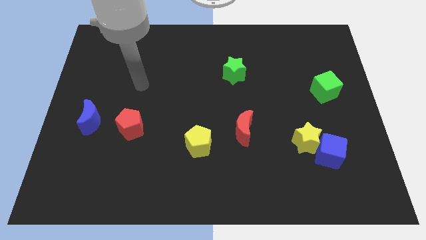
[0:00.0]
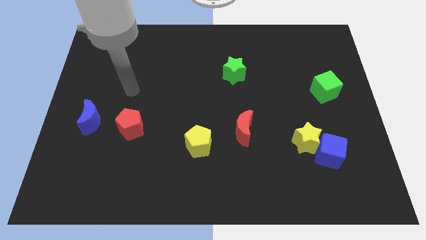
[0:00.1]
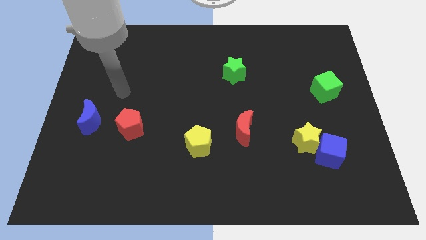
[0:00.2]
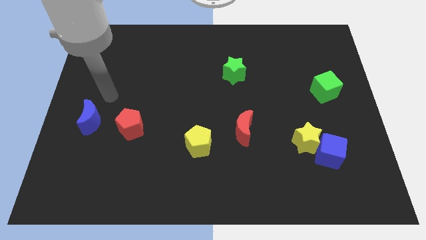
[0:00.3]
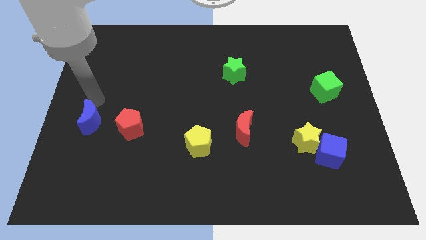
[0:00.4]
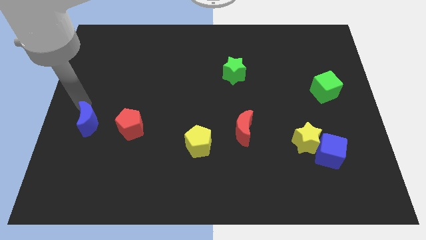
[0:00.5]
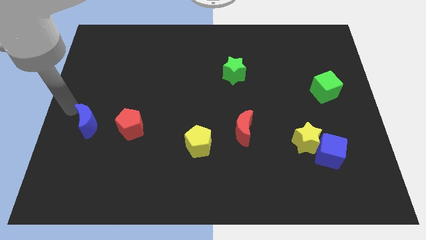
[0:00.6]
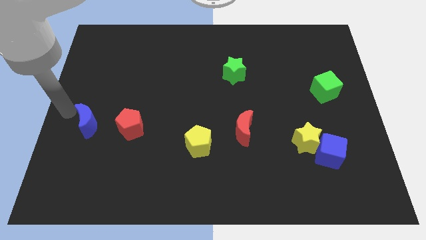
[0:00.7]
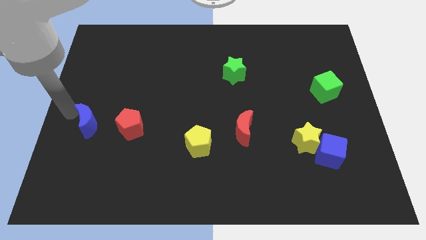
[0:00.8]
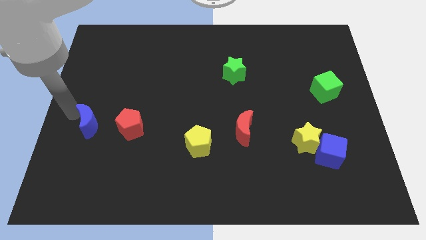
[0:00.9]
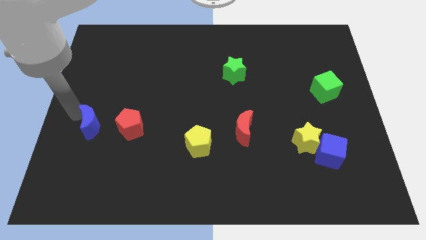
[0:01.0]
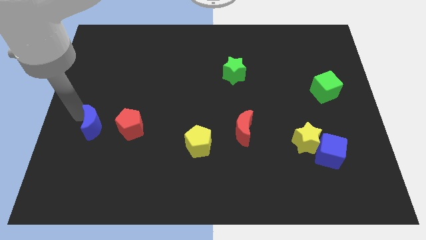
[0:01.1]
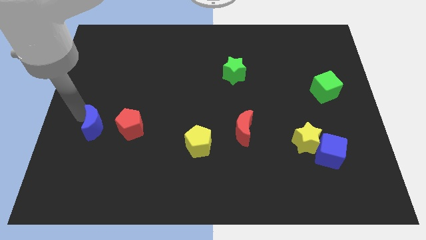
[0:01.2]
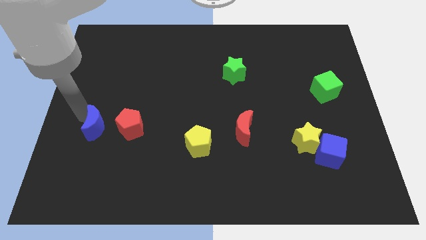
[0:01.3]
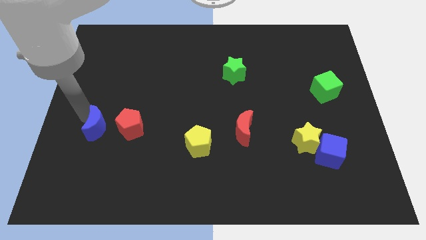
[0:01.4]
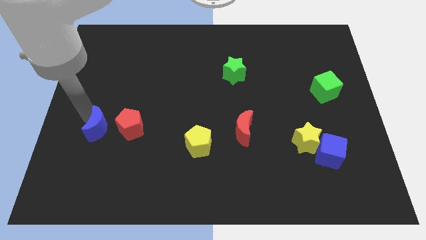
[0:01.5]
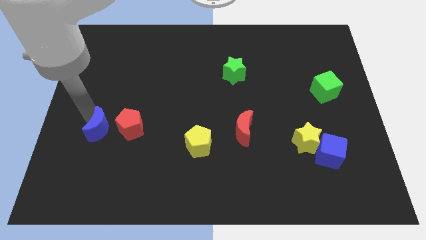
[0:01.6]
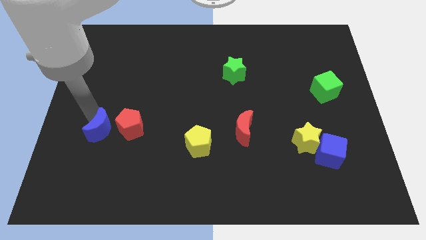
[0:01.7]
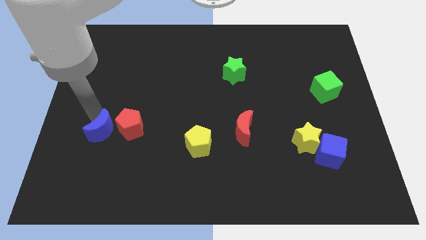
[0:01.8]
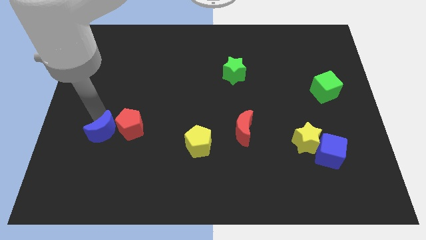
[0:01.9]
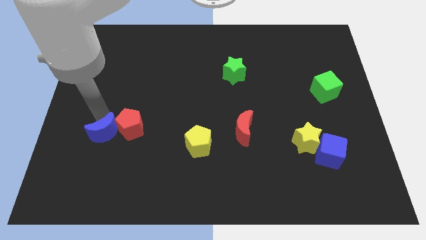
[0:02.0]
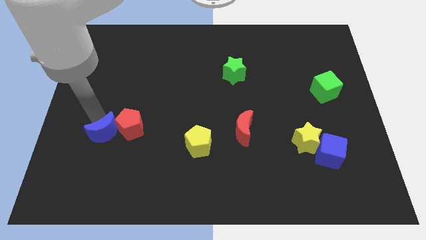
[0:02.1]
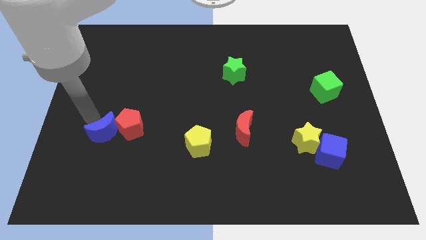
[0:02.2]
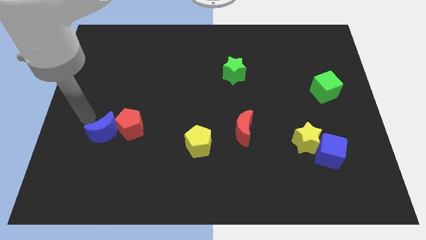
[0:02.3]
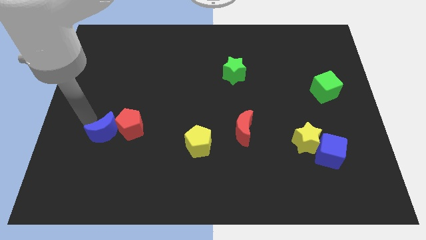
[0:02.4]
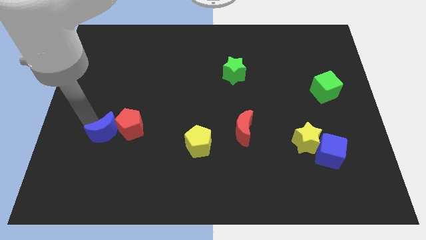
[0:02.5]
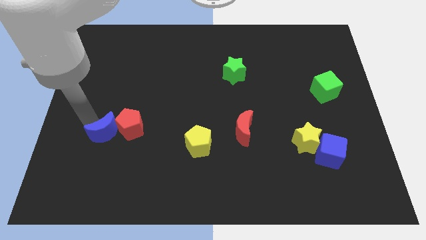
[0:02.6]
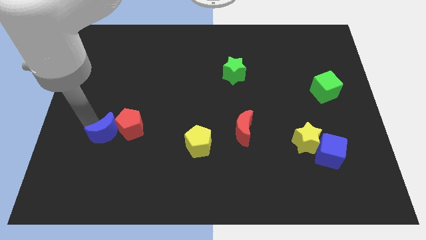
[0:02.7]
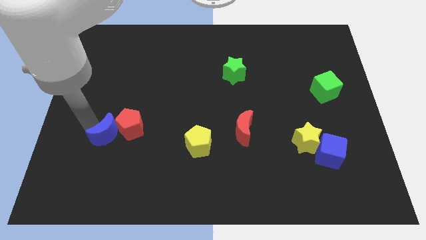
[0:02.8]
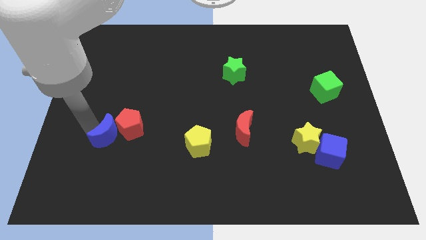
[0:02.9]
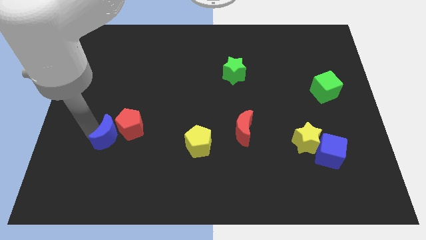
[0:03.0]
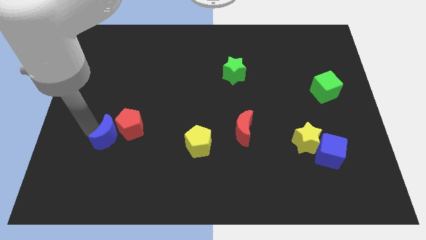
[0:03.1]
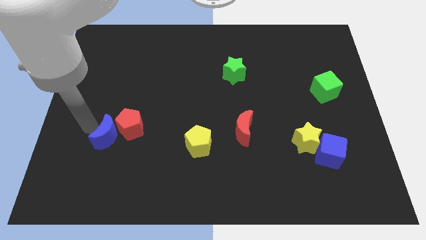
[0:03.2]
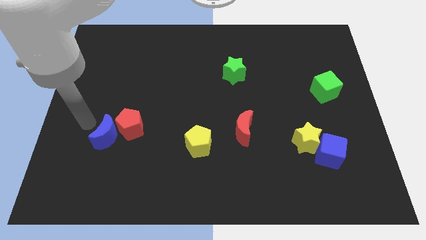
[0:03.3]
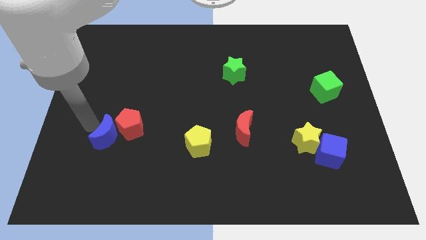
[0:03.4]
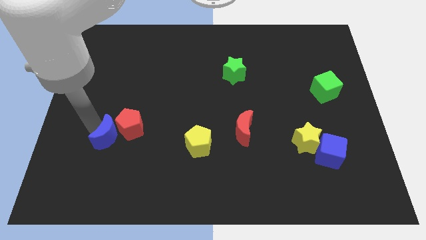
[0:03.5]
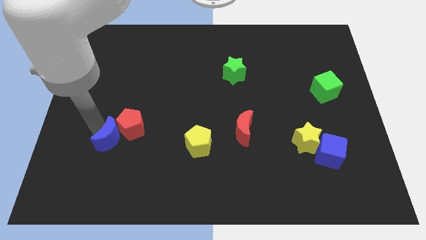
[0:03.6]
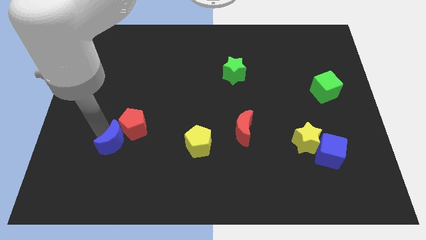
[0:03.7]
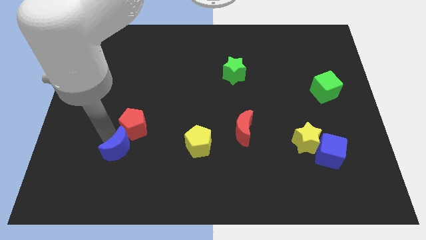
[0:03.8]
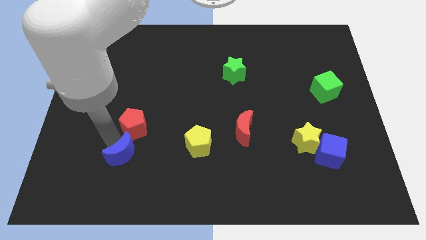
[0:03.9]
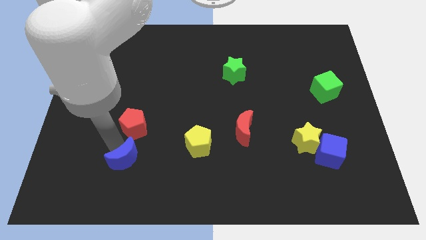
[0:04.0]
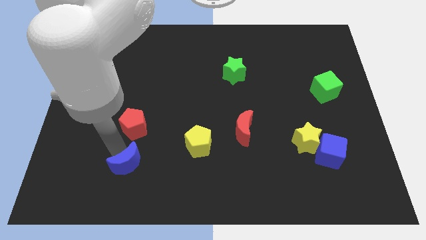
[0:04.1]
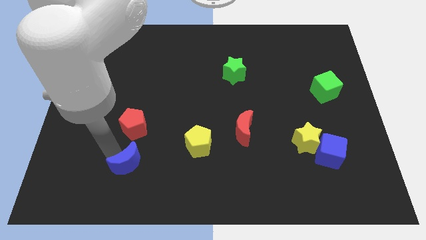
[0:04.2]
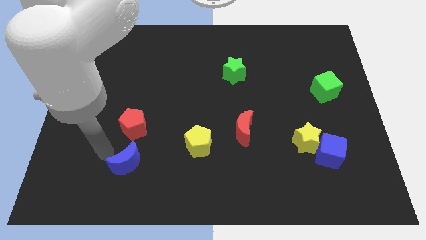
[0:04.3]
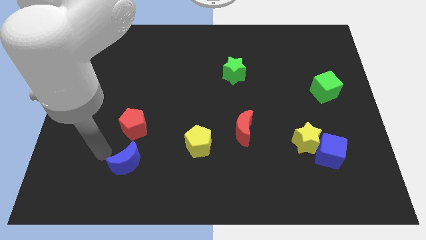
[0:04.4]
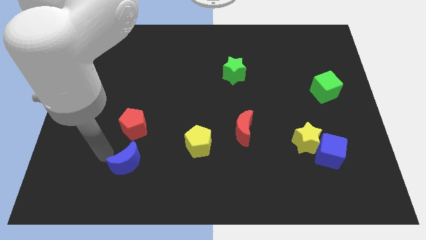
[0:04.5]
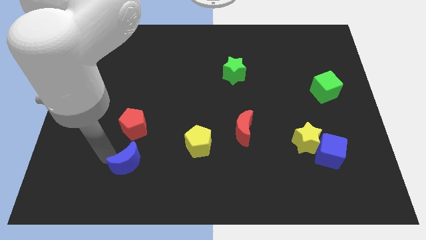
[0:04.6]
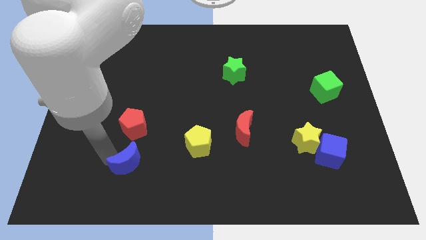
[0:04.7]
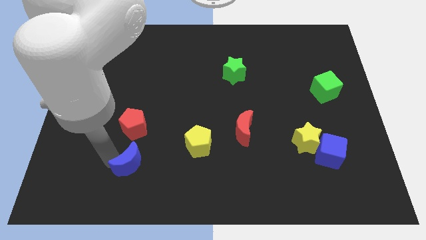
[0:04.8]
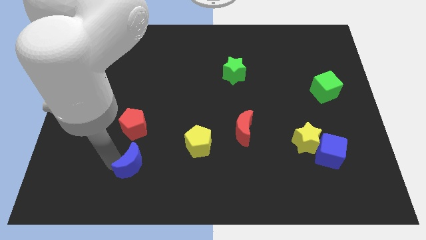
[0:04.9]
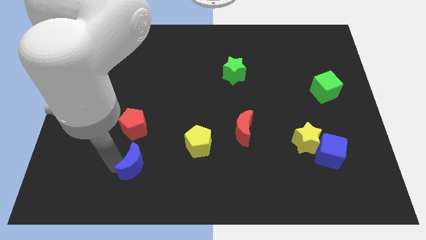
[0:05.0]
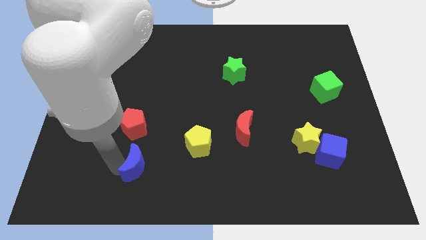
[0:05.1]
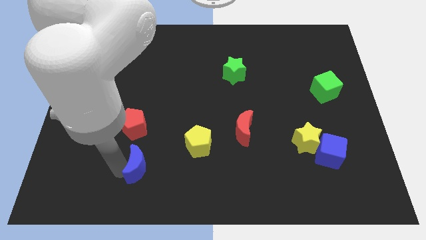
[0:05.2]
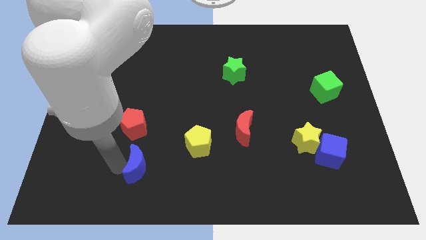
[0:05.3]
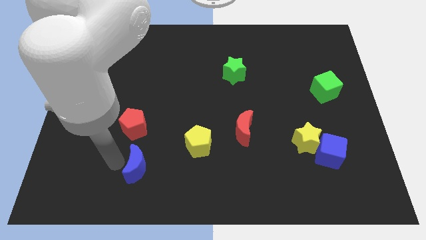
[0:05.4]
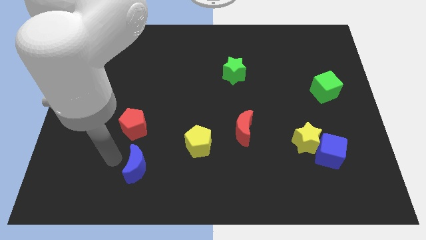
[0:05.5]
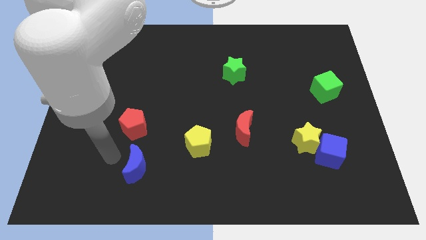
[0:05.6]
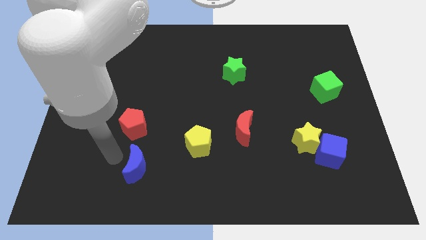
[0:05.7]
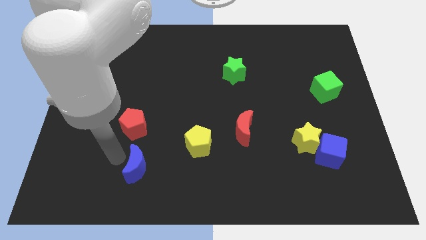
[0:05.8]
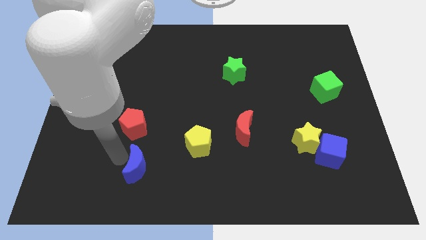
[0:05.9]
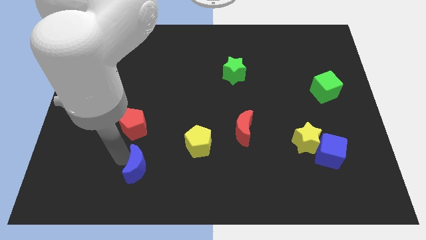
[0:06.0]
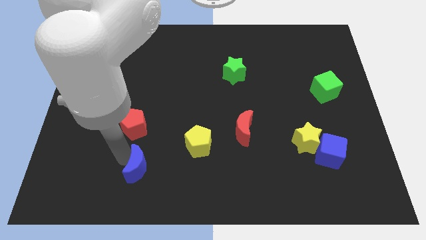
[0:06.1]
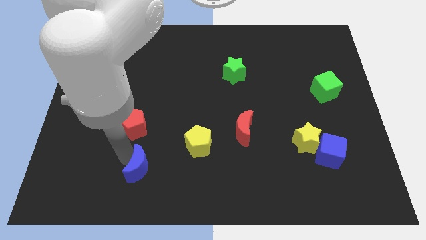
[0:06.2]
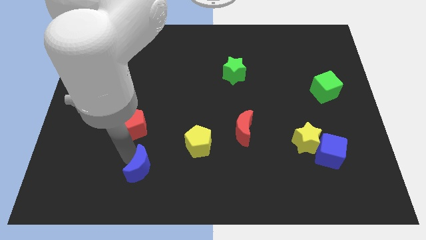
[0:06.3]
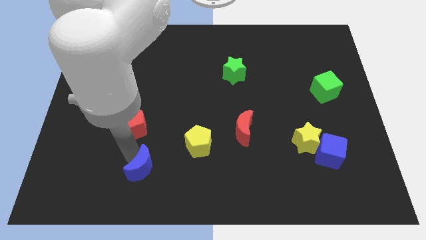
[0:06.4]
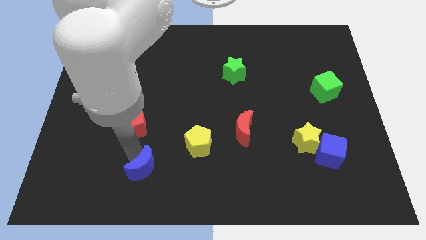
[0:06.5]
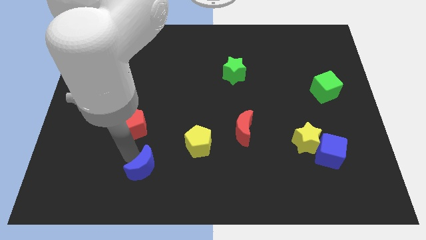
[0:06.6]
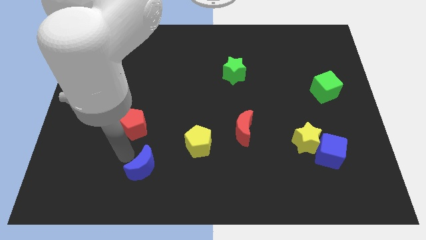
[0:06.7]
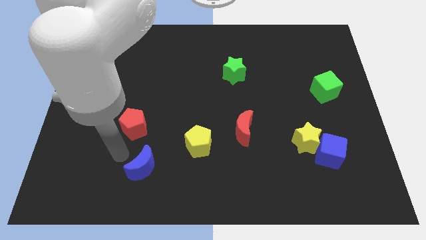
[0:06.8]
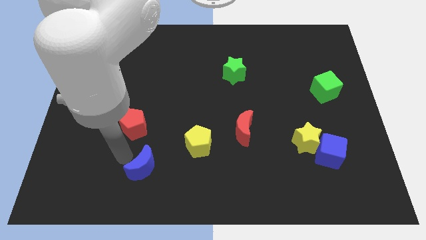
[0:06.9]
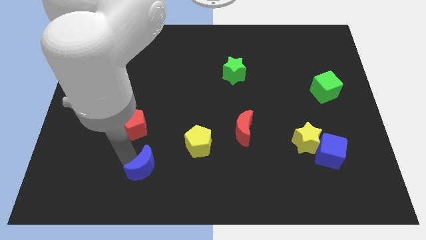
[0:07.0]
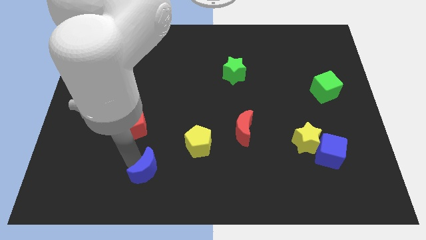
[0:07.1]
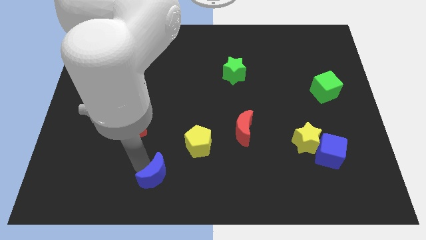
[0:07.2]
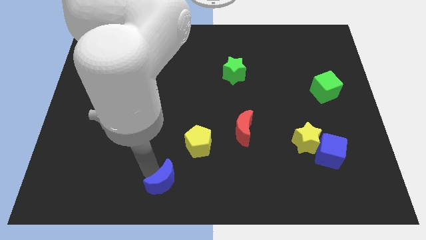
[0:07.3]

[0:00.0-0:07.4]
put the blue moon to the bottom

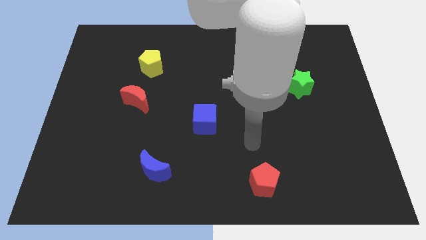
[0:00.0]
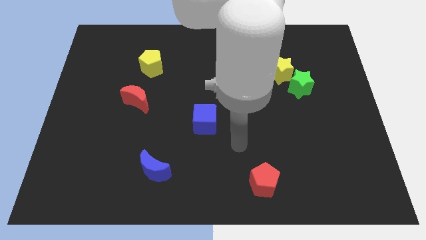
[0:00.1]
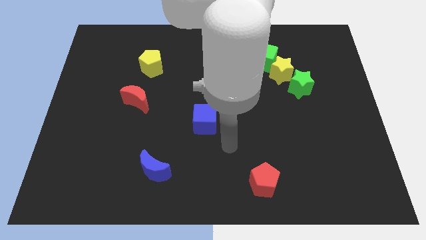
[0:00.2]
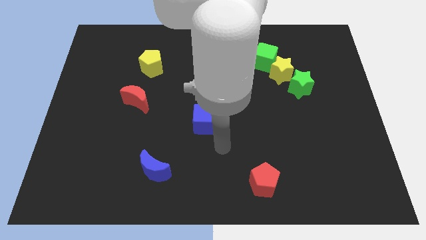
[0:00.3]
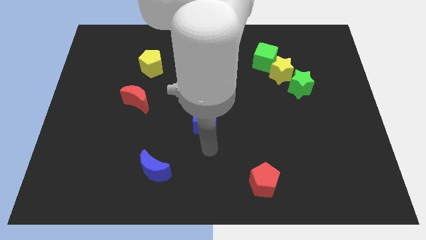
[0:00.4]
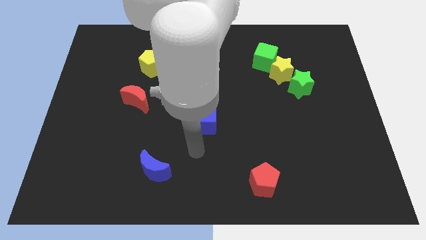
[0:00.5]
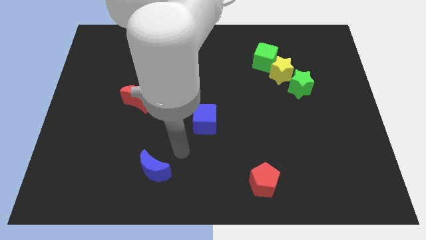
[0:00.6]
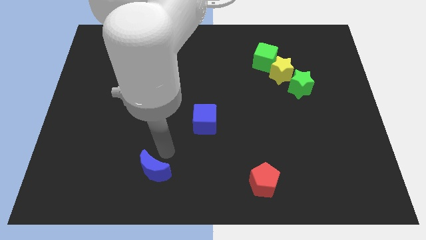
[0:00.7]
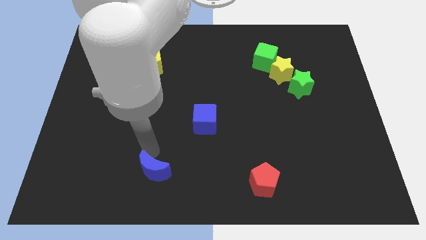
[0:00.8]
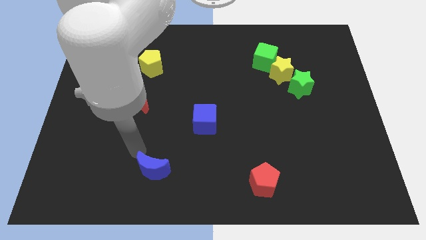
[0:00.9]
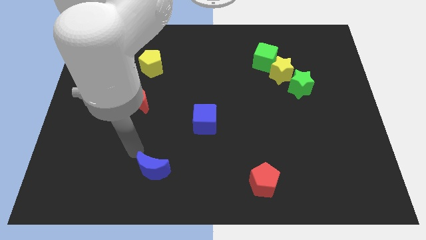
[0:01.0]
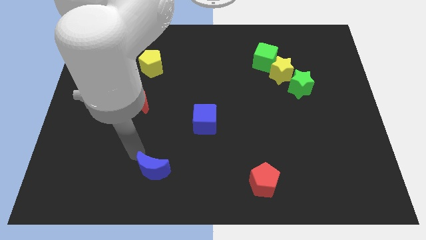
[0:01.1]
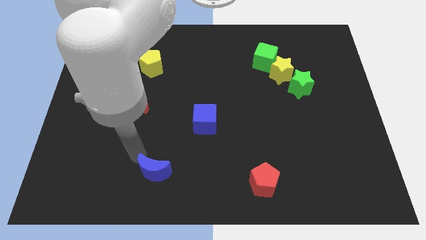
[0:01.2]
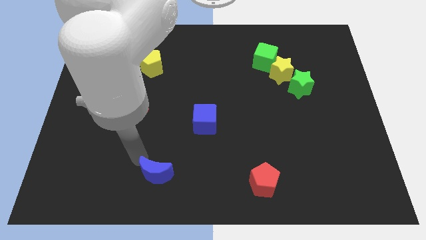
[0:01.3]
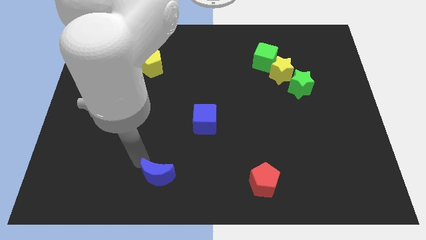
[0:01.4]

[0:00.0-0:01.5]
push the blue moon to the bottom
